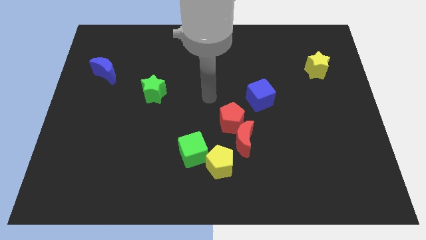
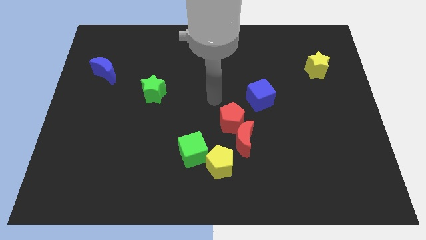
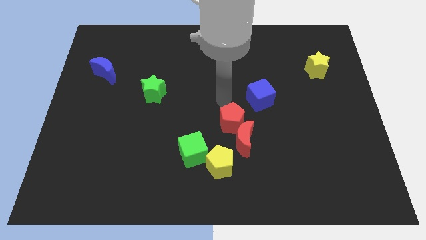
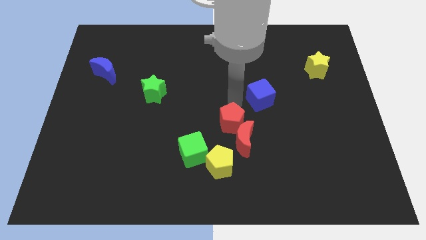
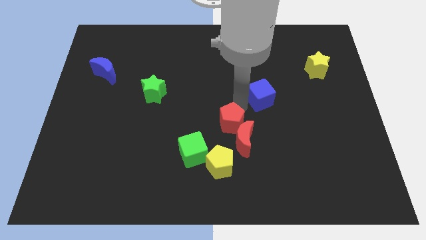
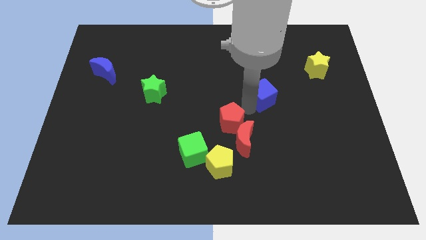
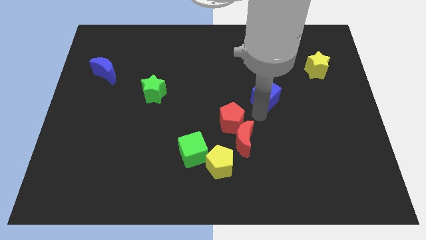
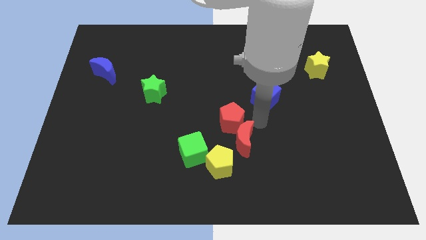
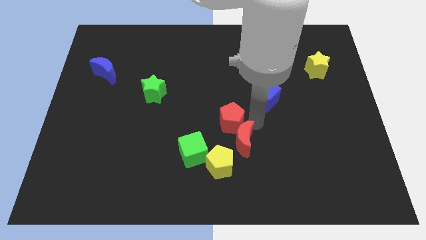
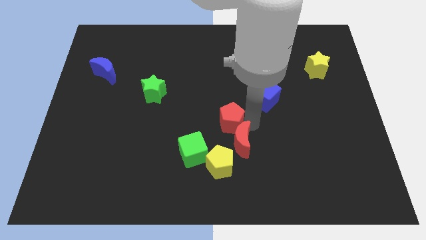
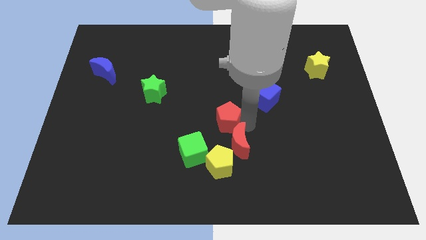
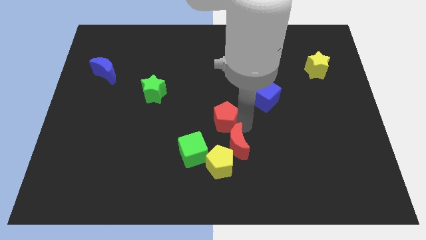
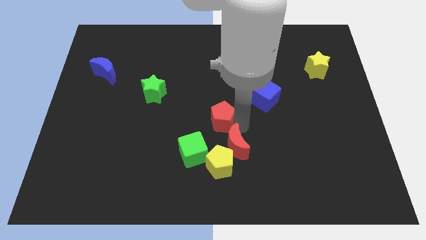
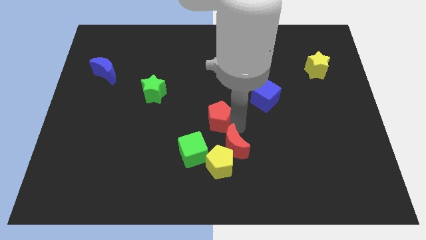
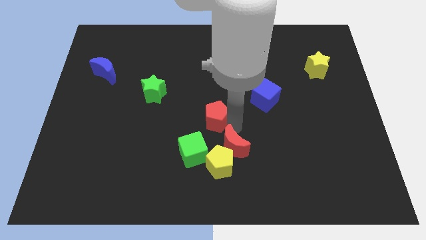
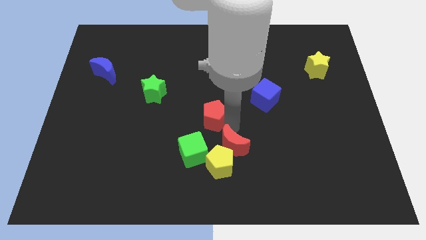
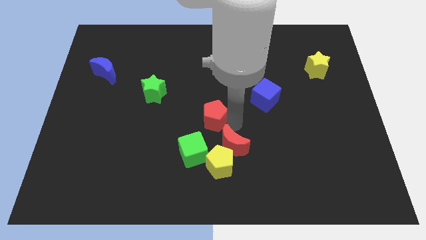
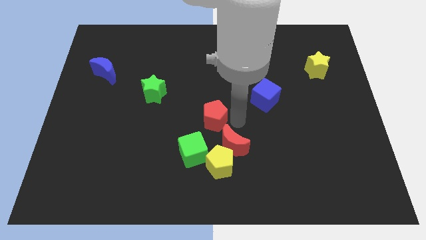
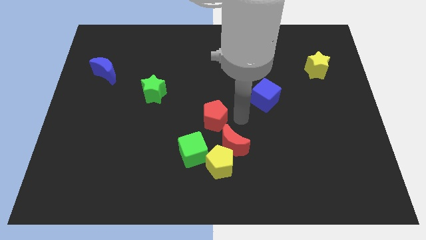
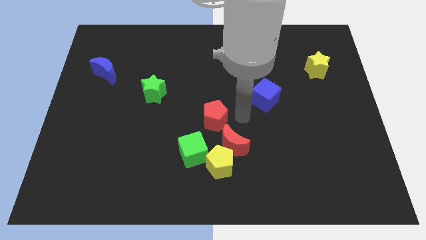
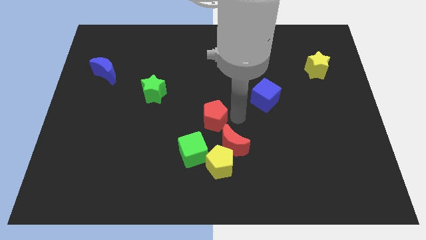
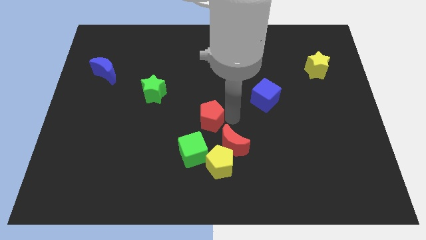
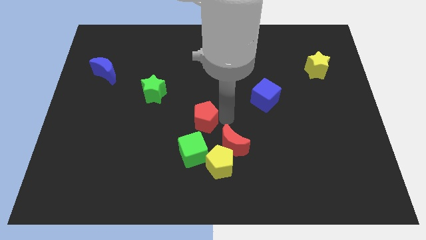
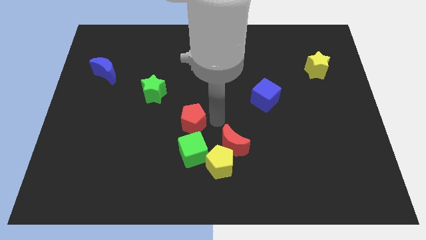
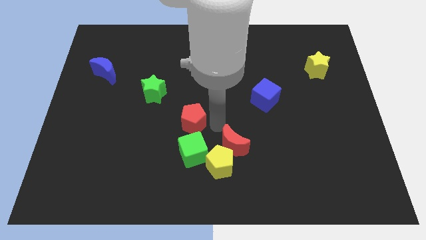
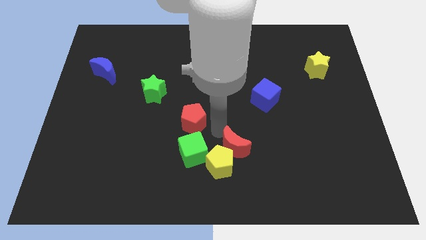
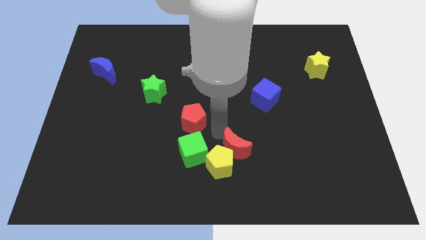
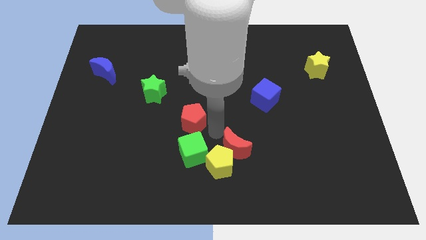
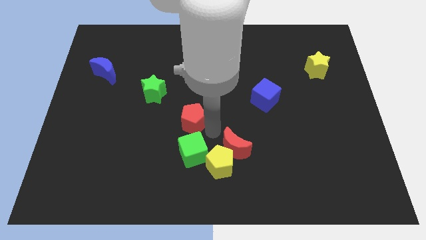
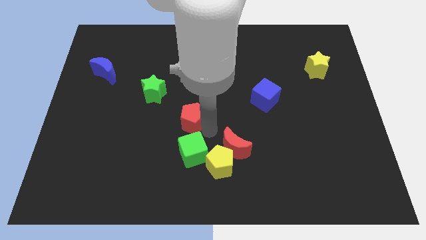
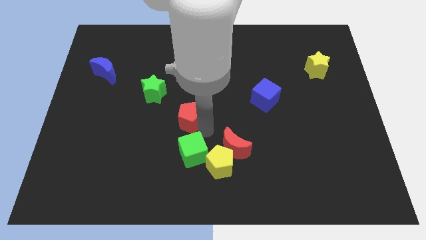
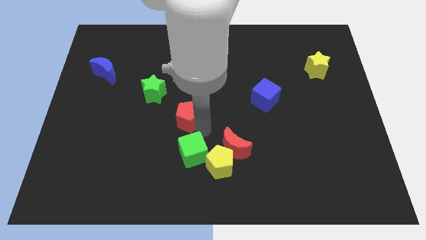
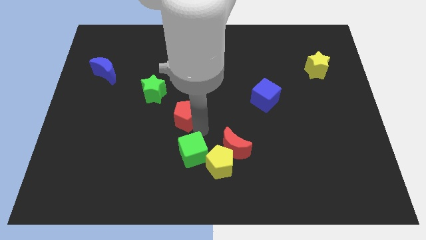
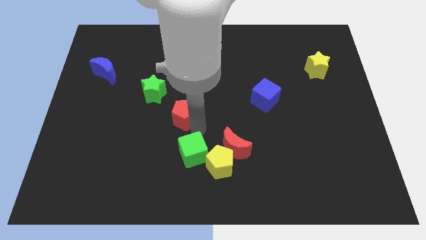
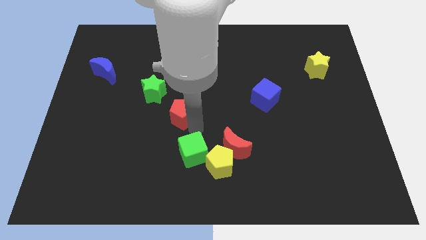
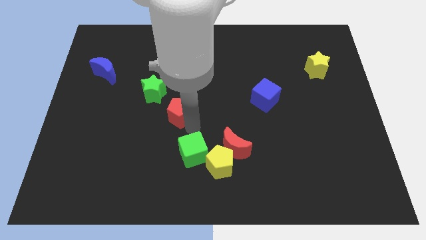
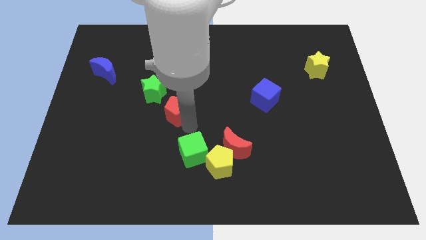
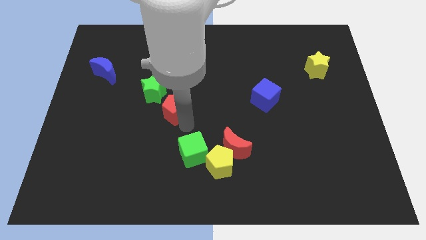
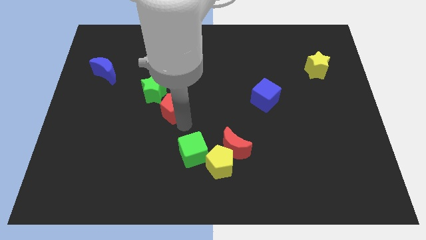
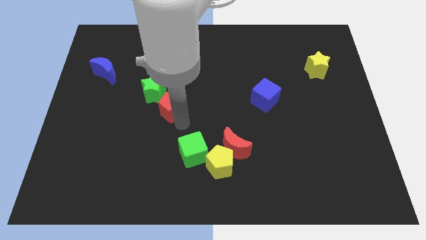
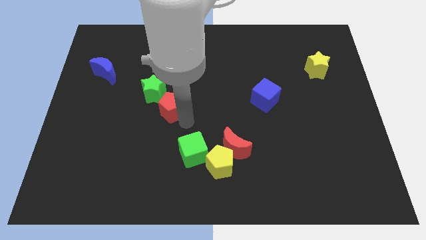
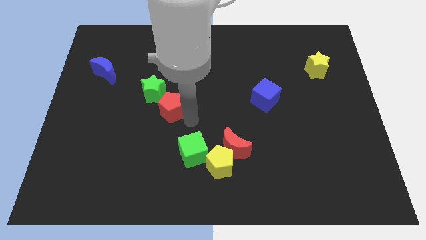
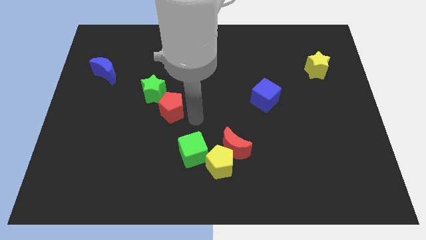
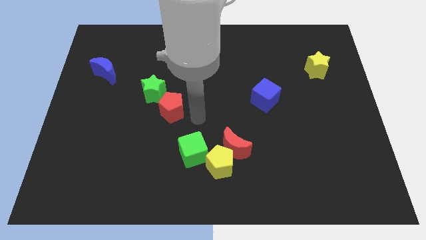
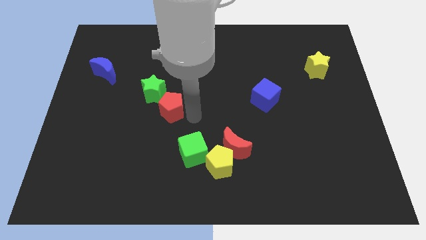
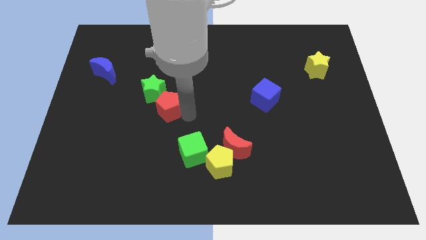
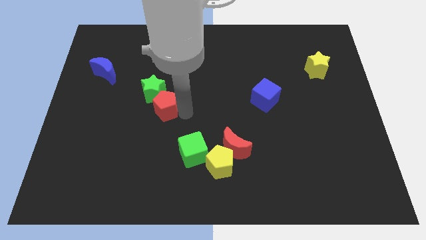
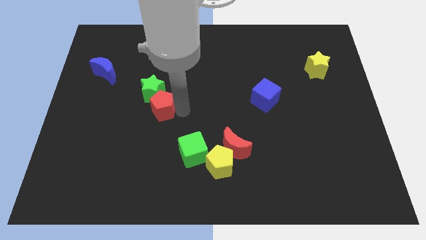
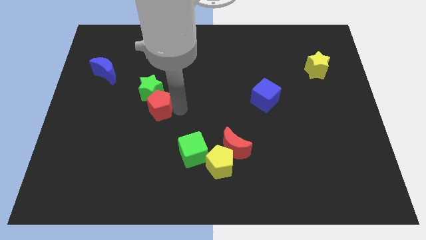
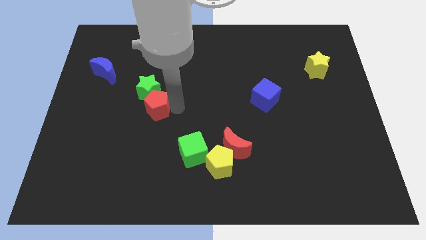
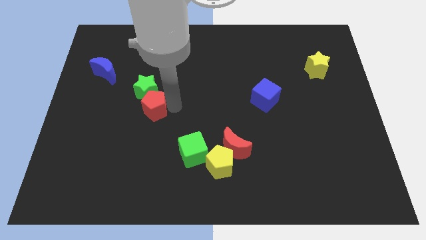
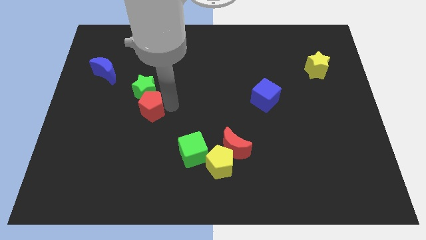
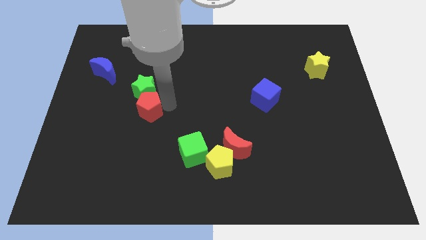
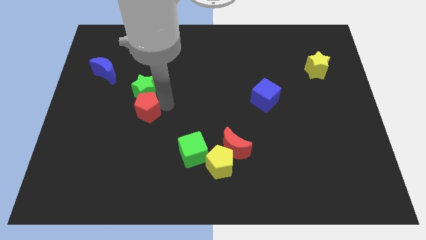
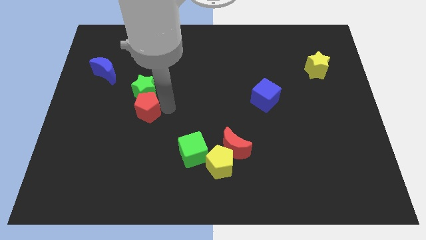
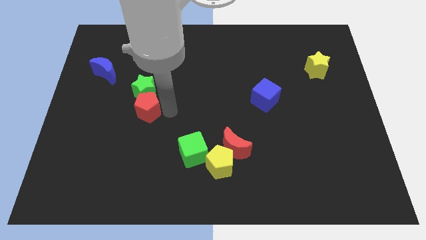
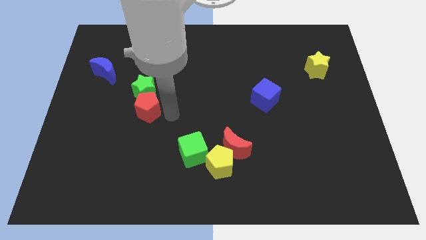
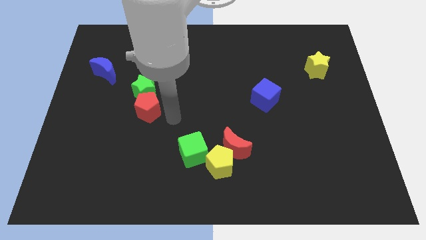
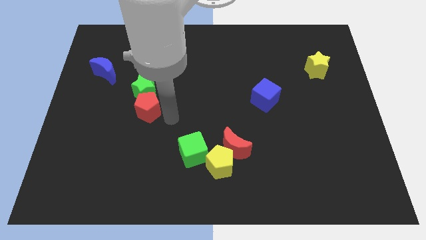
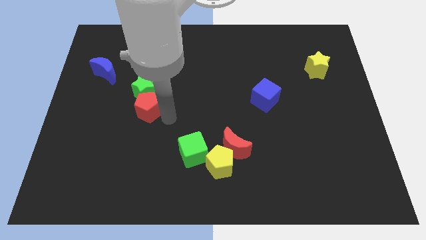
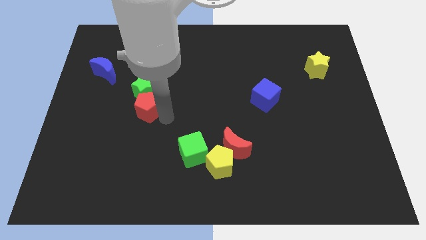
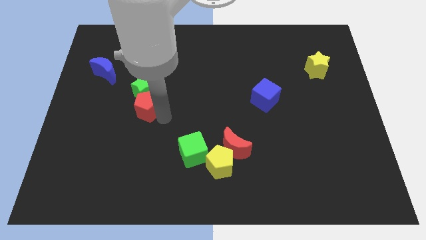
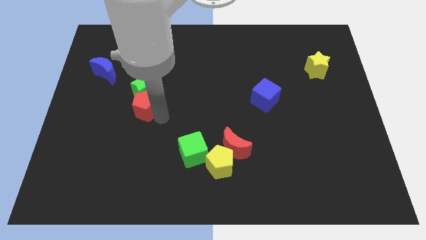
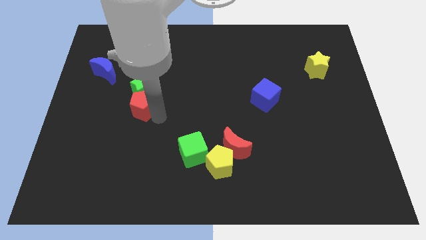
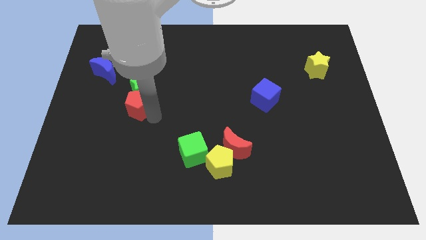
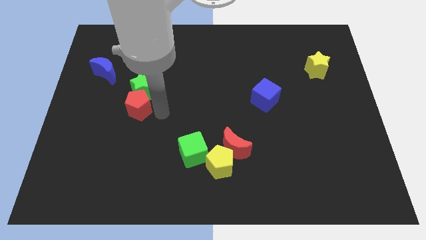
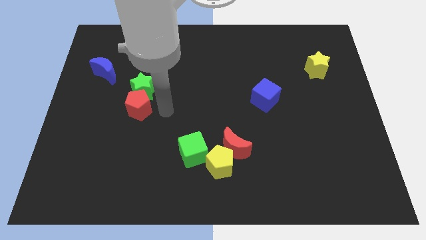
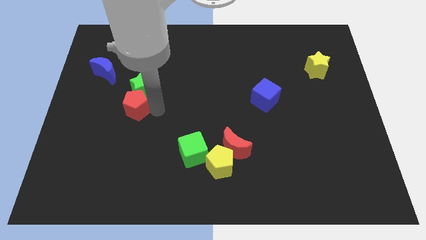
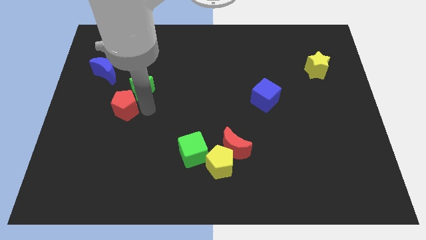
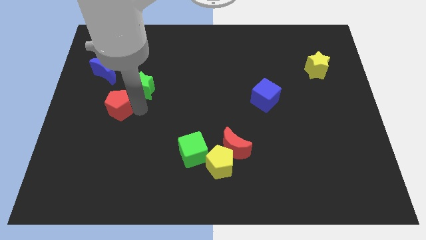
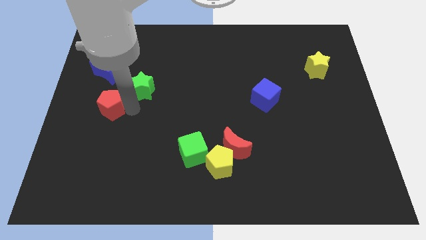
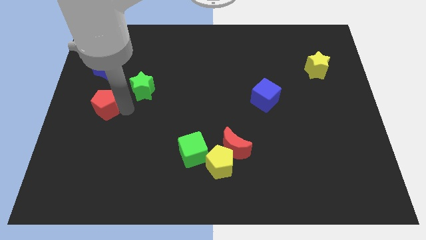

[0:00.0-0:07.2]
put the red pentagon to the left side of the board
